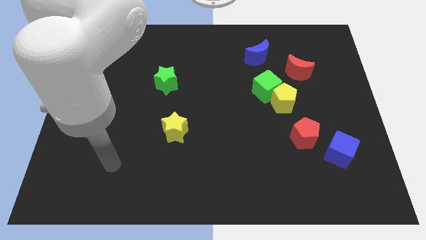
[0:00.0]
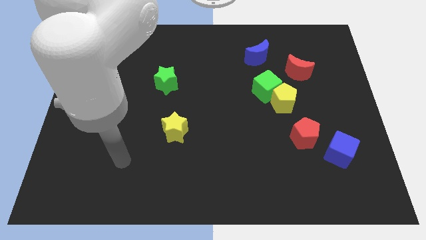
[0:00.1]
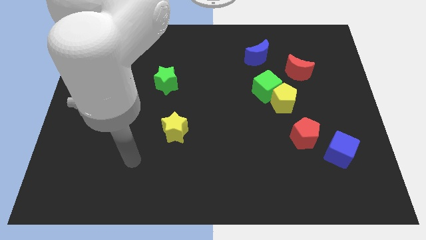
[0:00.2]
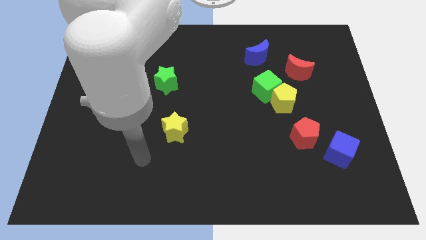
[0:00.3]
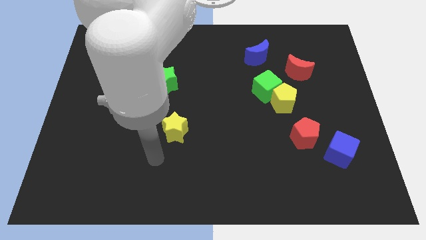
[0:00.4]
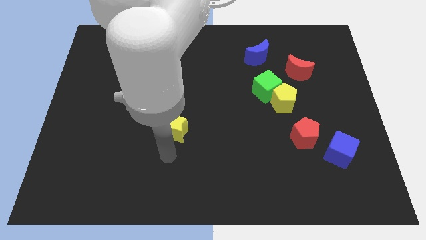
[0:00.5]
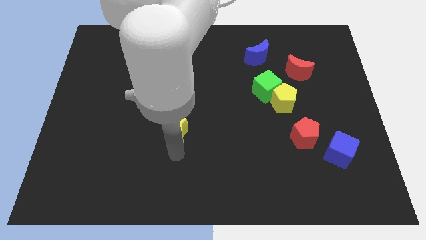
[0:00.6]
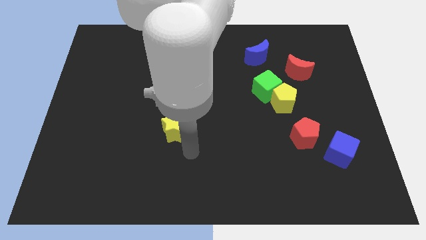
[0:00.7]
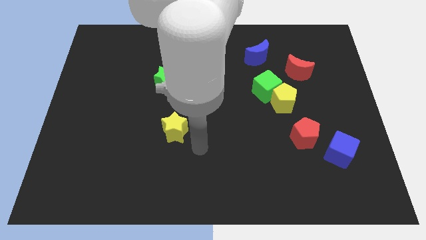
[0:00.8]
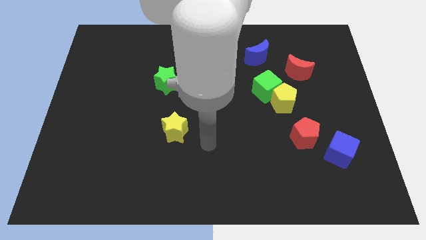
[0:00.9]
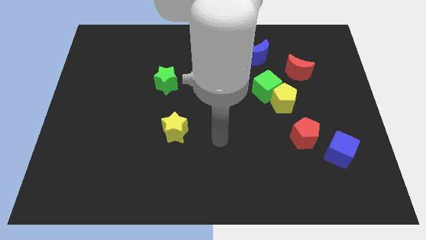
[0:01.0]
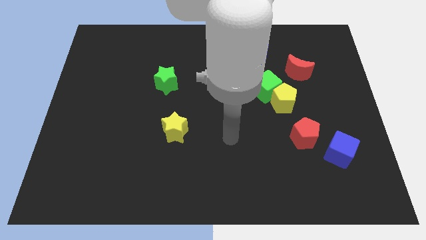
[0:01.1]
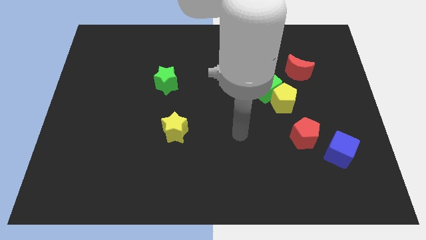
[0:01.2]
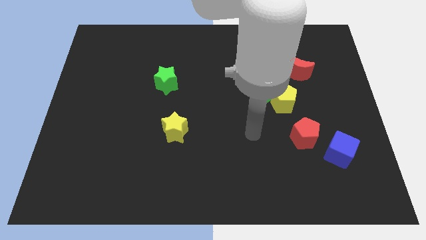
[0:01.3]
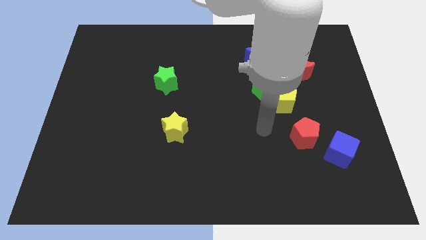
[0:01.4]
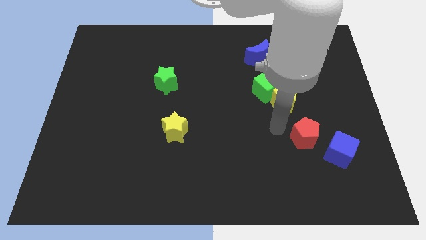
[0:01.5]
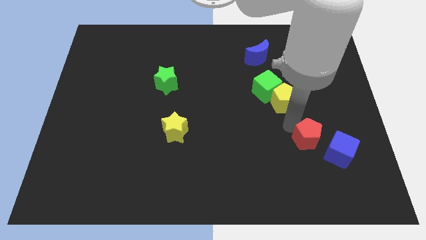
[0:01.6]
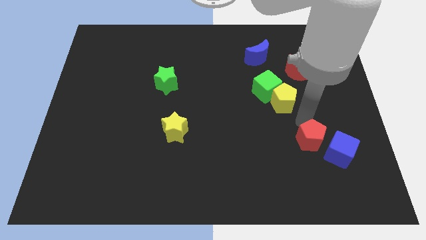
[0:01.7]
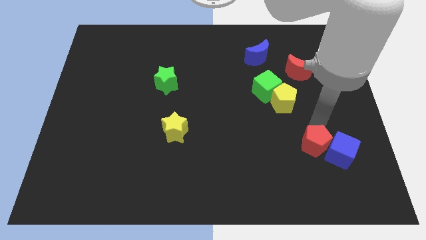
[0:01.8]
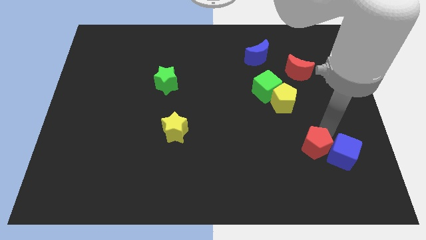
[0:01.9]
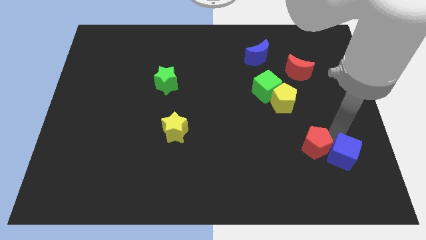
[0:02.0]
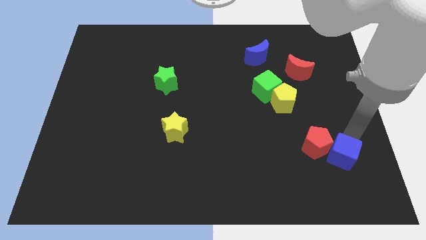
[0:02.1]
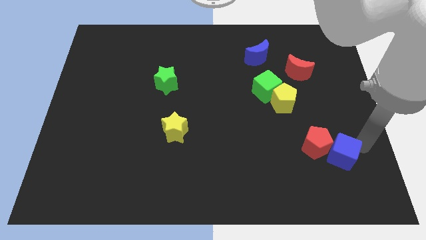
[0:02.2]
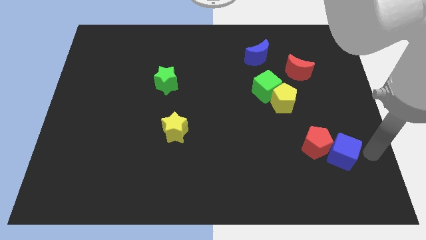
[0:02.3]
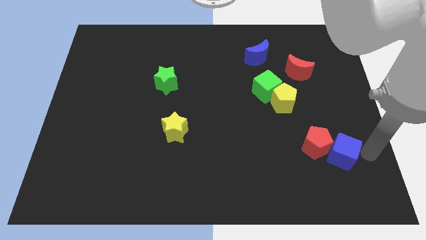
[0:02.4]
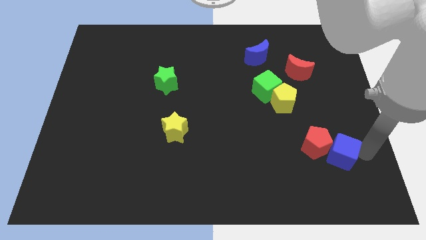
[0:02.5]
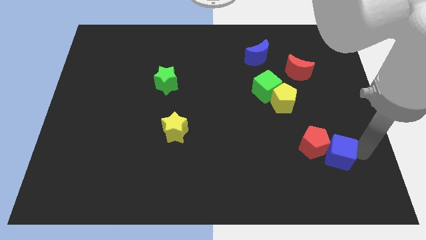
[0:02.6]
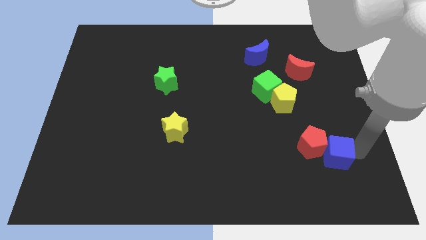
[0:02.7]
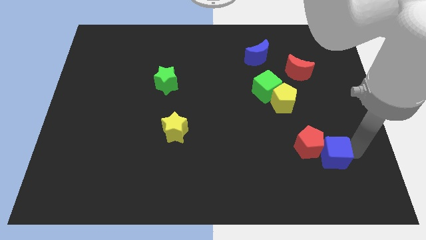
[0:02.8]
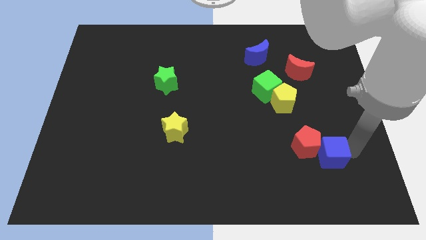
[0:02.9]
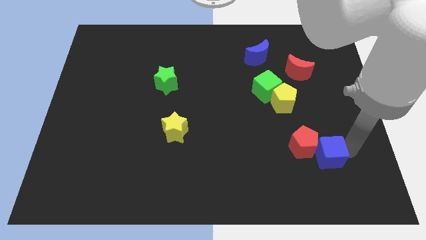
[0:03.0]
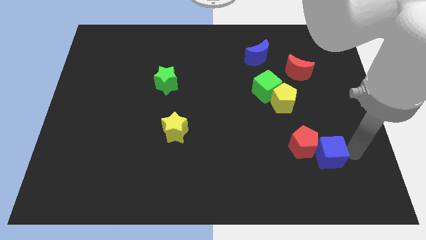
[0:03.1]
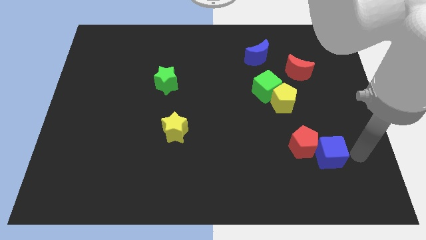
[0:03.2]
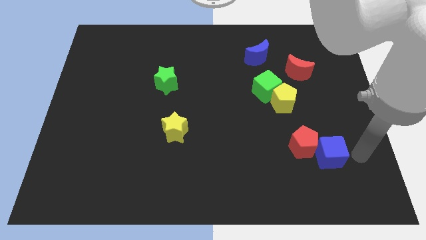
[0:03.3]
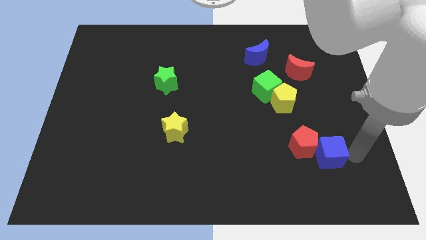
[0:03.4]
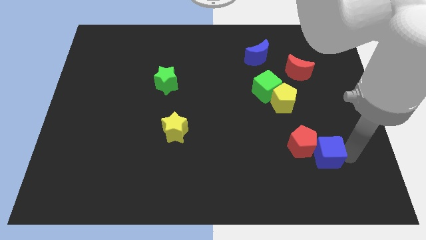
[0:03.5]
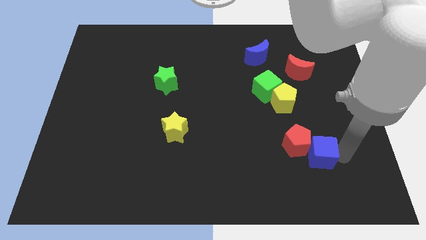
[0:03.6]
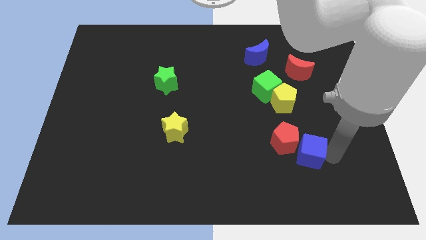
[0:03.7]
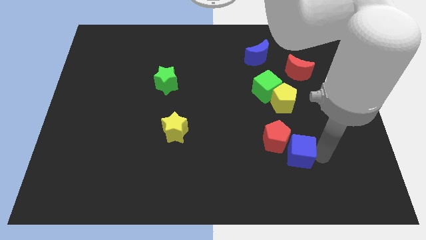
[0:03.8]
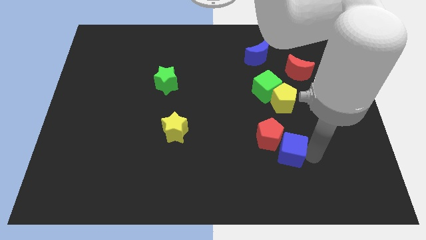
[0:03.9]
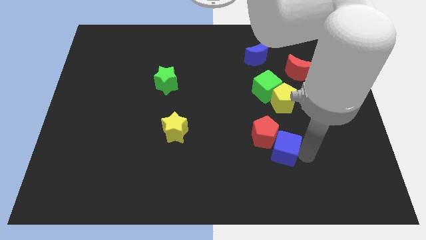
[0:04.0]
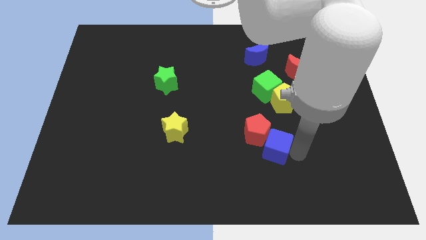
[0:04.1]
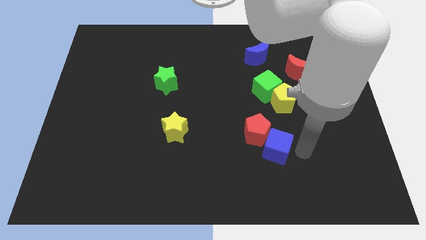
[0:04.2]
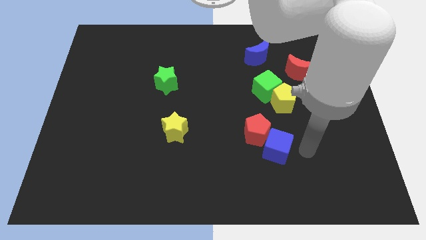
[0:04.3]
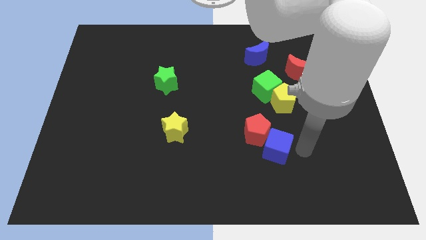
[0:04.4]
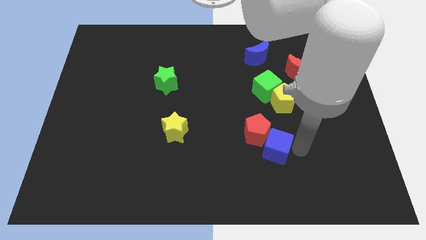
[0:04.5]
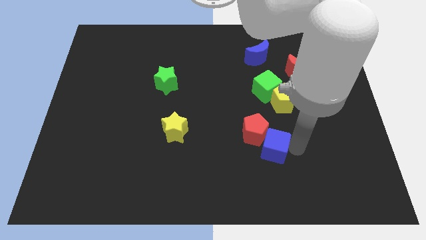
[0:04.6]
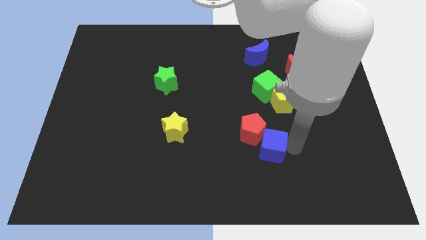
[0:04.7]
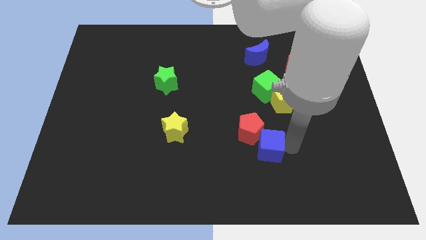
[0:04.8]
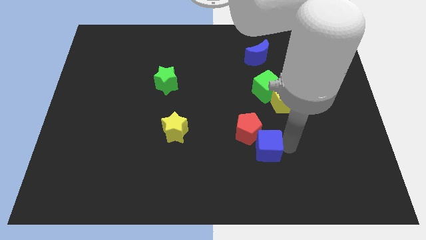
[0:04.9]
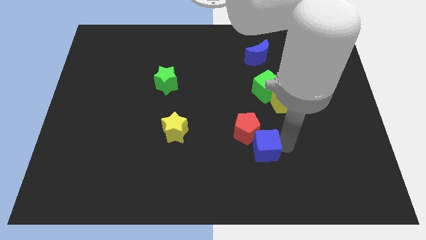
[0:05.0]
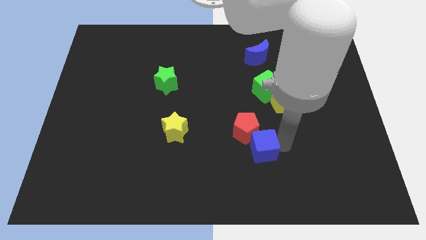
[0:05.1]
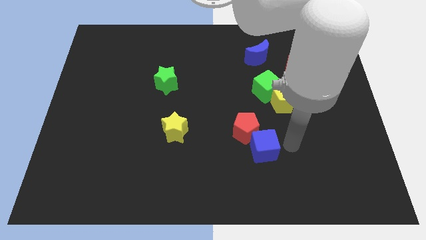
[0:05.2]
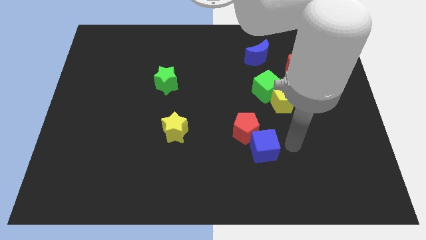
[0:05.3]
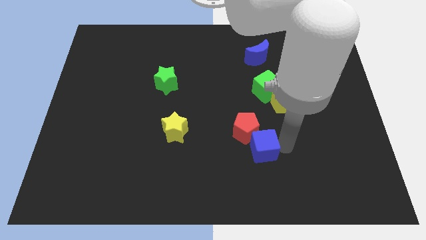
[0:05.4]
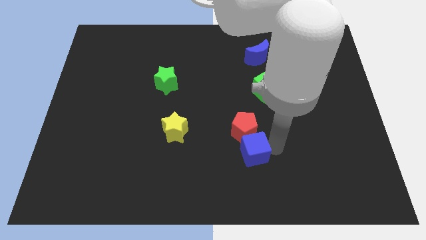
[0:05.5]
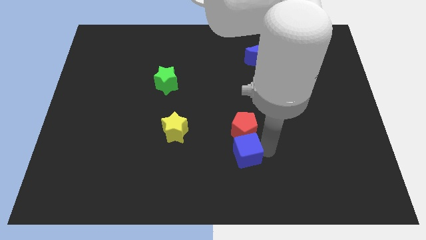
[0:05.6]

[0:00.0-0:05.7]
push the blue cube to the left

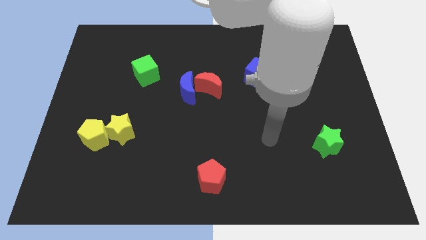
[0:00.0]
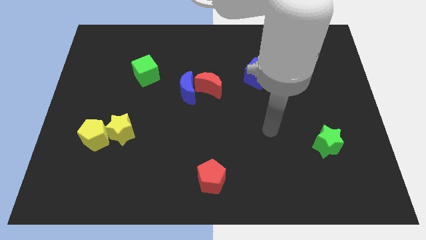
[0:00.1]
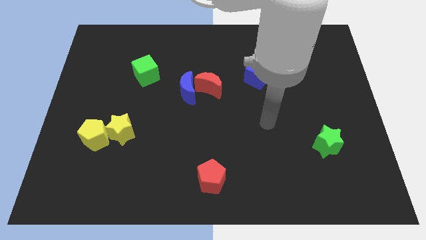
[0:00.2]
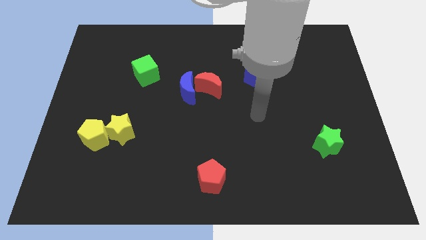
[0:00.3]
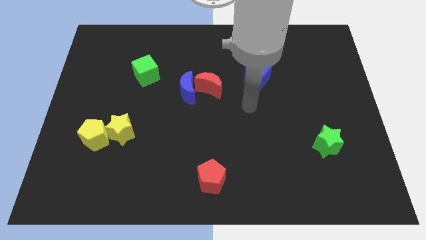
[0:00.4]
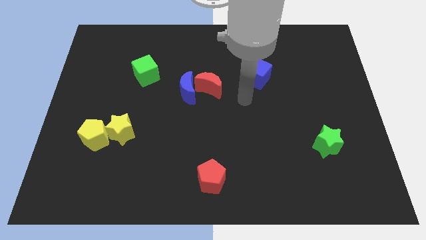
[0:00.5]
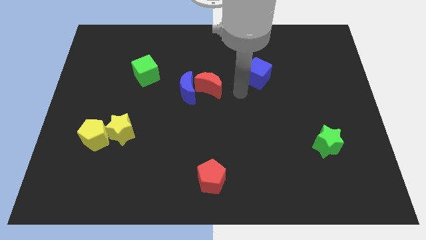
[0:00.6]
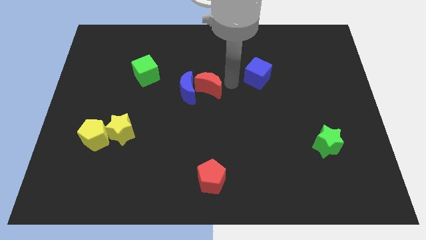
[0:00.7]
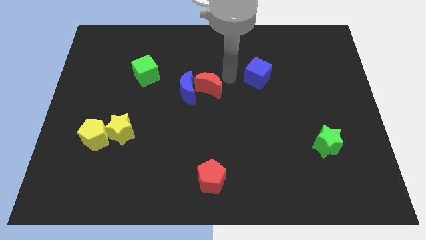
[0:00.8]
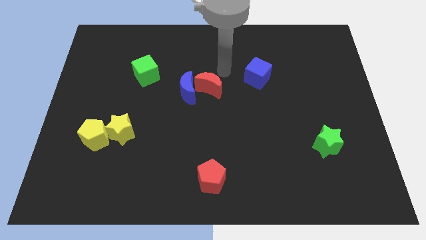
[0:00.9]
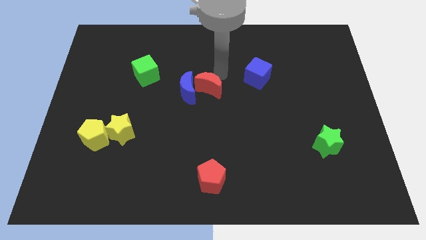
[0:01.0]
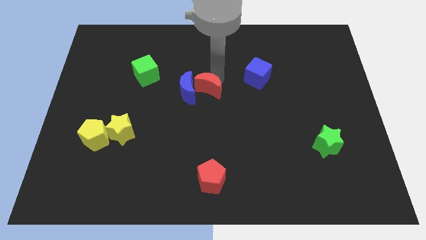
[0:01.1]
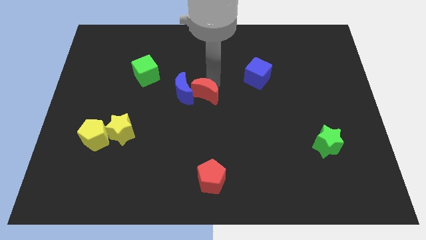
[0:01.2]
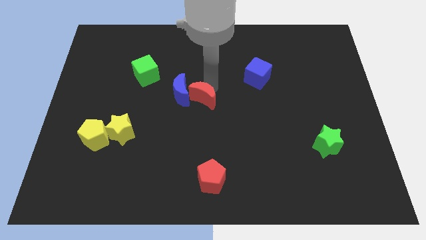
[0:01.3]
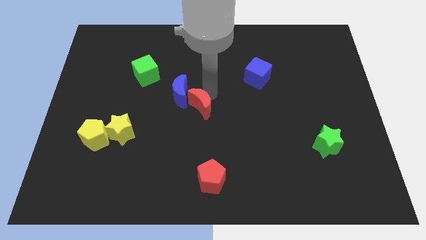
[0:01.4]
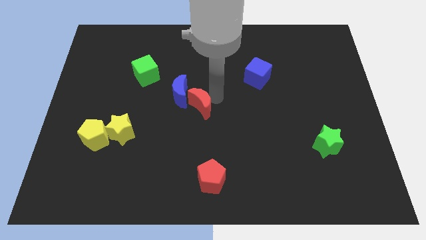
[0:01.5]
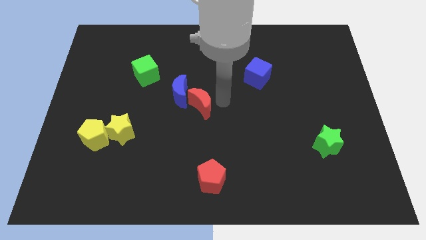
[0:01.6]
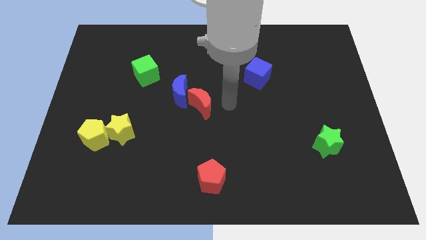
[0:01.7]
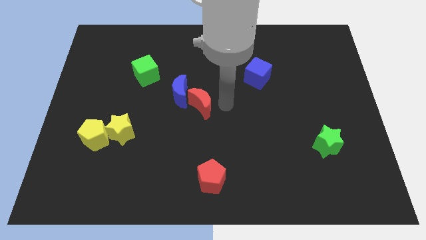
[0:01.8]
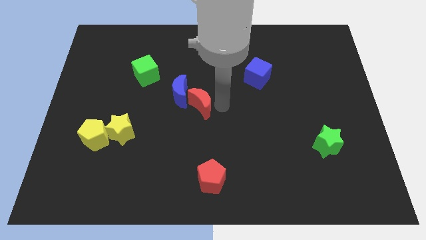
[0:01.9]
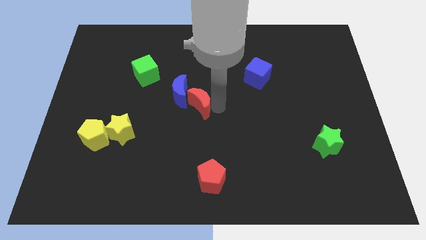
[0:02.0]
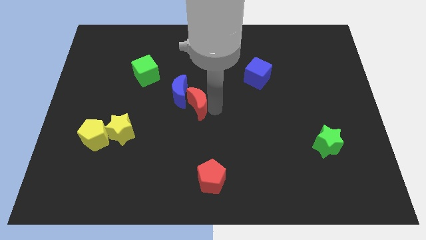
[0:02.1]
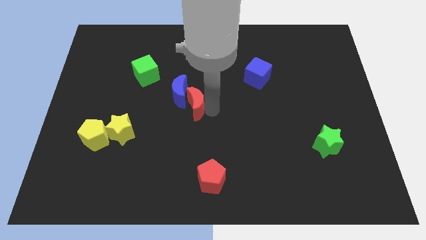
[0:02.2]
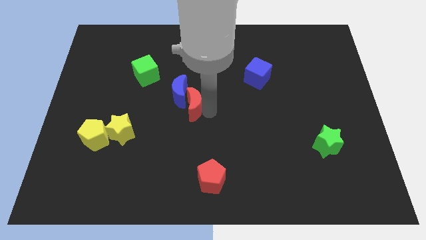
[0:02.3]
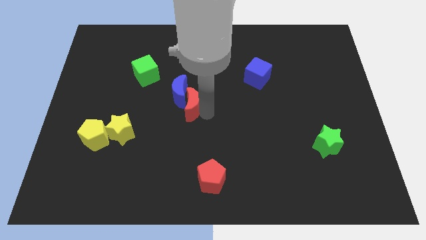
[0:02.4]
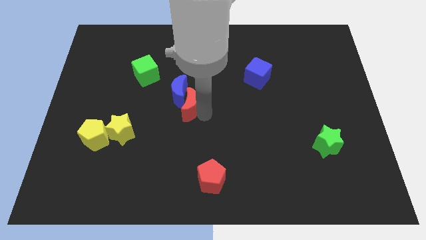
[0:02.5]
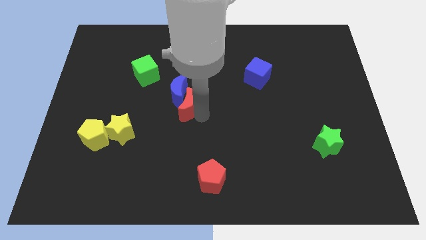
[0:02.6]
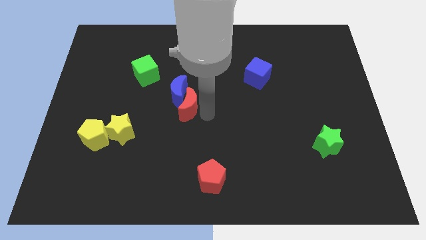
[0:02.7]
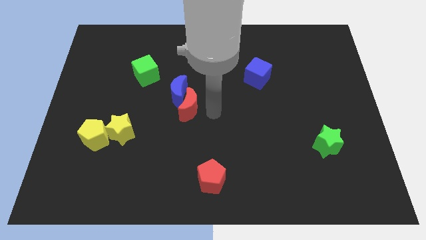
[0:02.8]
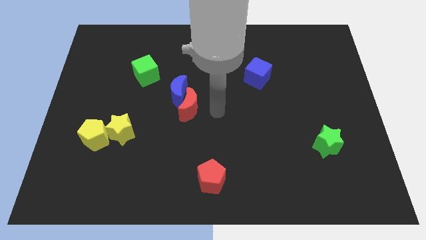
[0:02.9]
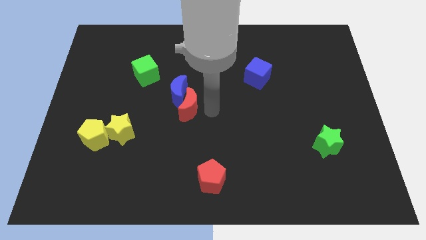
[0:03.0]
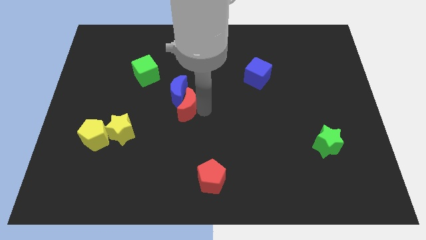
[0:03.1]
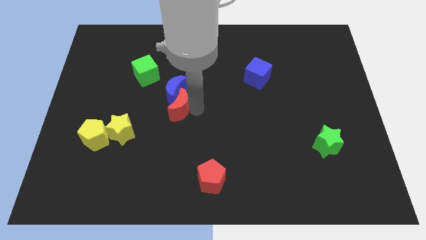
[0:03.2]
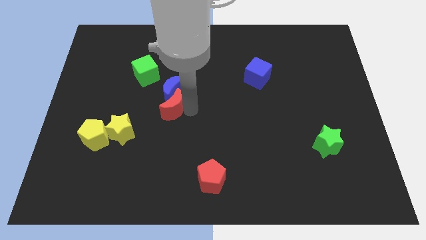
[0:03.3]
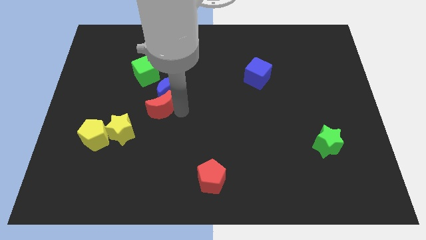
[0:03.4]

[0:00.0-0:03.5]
push the red moon somewhat left
